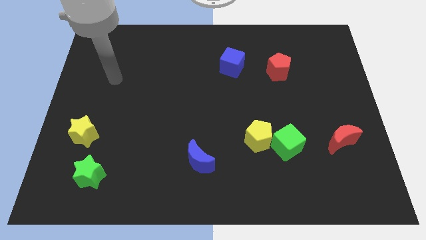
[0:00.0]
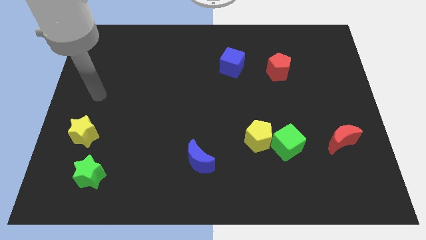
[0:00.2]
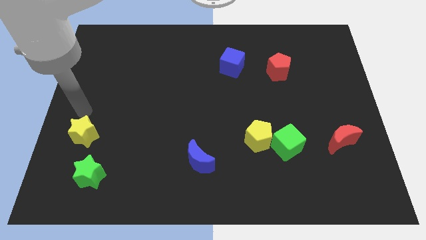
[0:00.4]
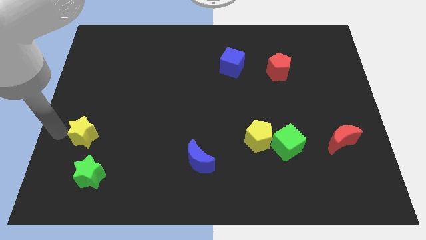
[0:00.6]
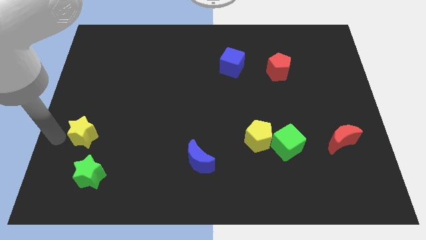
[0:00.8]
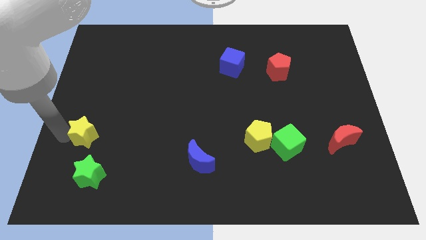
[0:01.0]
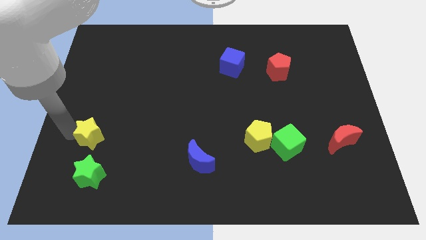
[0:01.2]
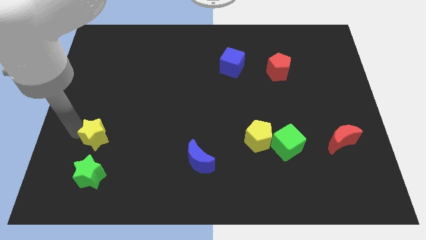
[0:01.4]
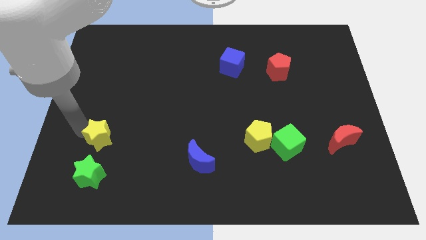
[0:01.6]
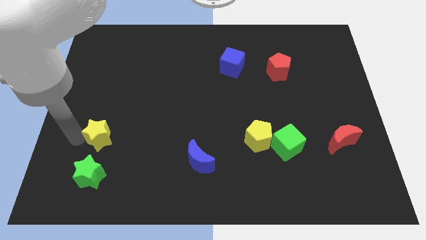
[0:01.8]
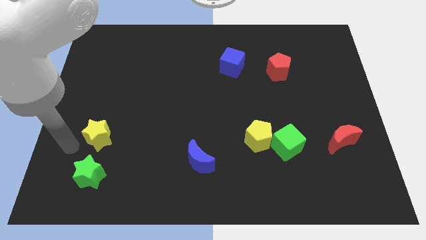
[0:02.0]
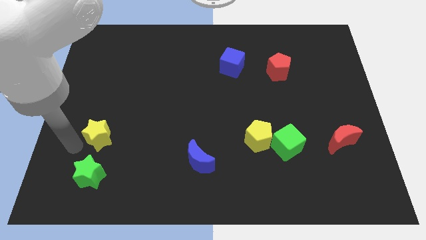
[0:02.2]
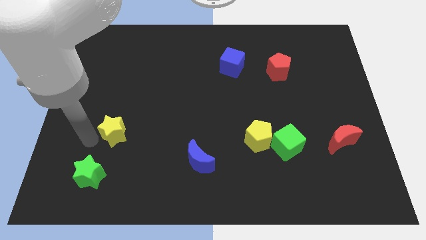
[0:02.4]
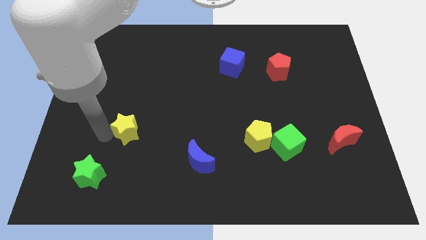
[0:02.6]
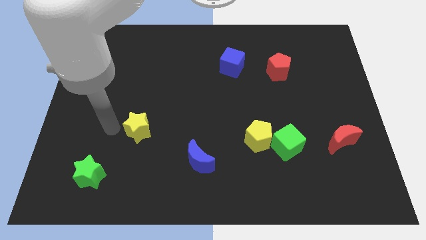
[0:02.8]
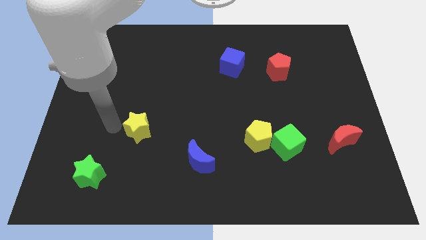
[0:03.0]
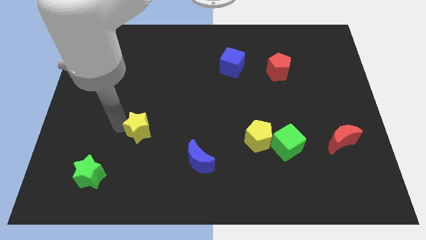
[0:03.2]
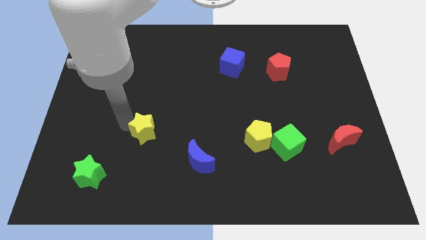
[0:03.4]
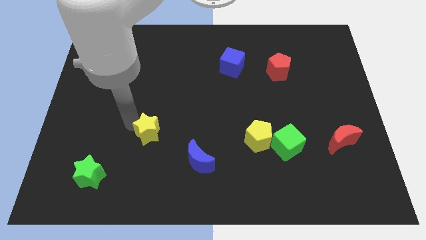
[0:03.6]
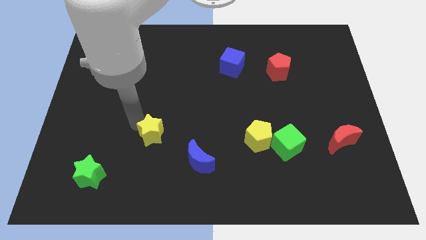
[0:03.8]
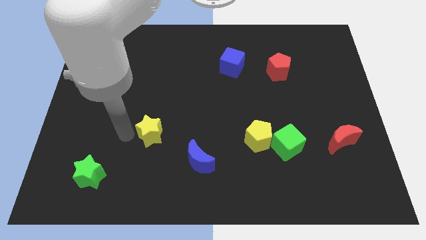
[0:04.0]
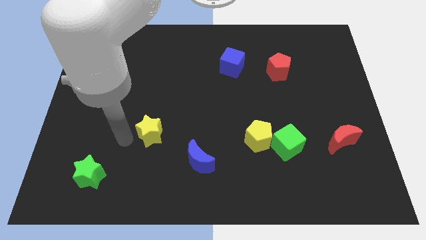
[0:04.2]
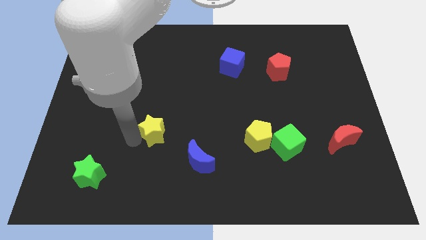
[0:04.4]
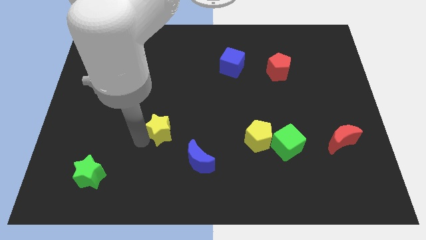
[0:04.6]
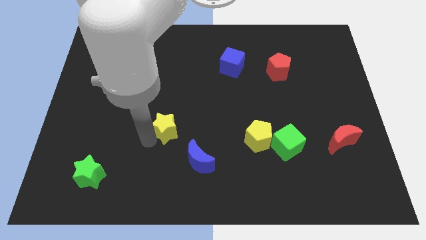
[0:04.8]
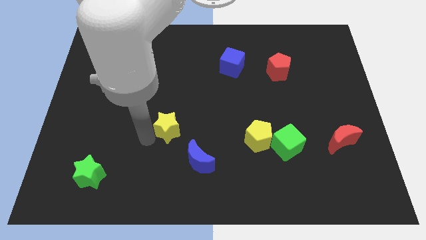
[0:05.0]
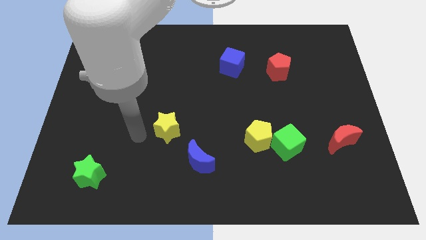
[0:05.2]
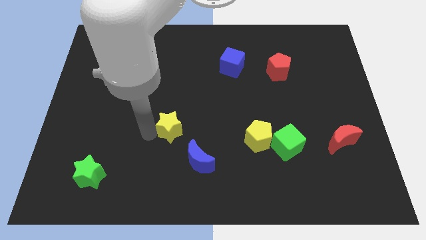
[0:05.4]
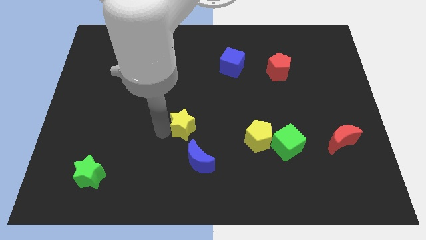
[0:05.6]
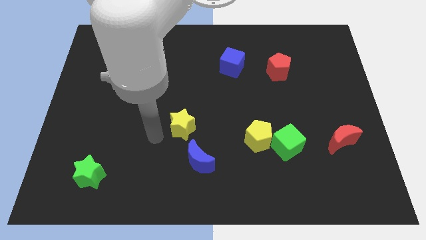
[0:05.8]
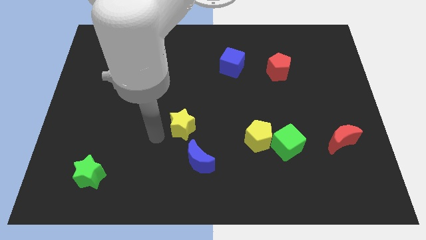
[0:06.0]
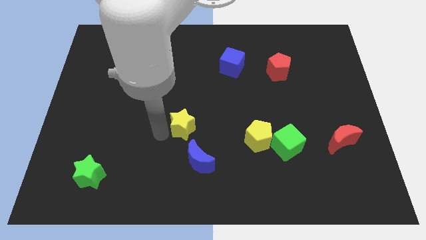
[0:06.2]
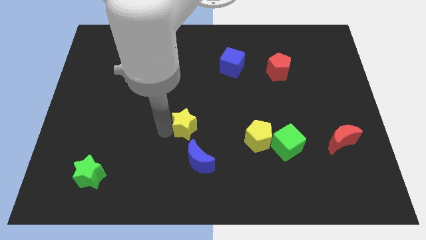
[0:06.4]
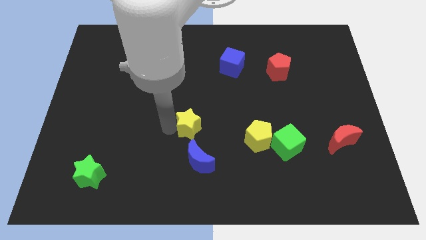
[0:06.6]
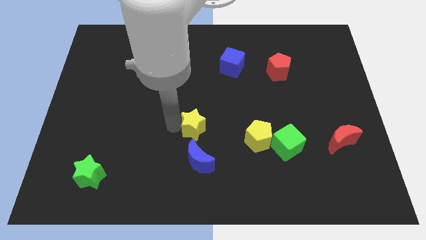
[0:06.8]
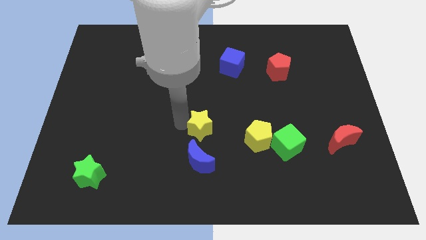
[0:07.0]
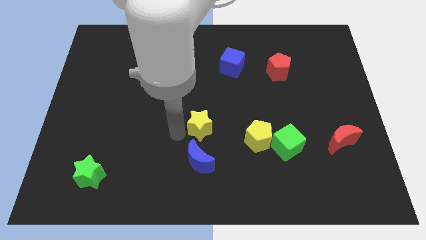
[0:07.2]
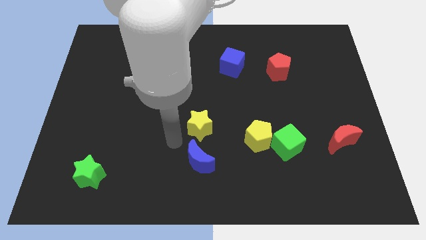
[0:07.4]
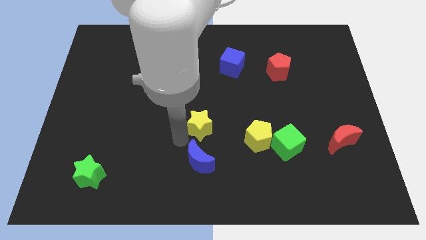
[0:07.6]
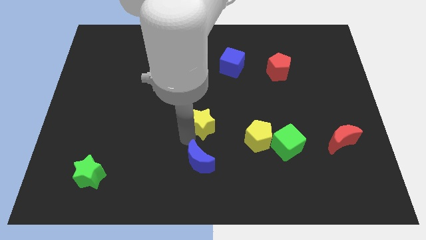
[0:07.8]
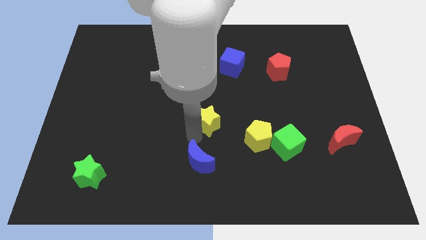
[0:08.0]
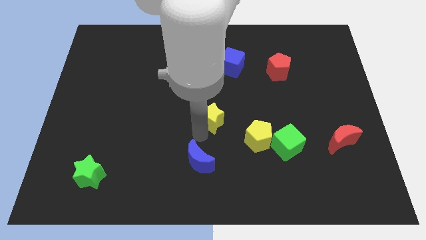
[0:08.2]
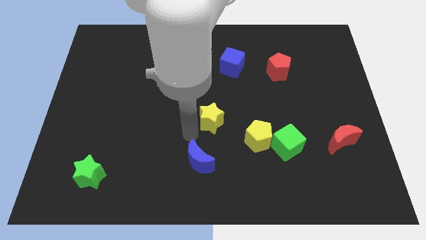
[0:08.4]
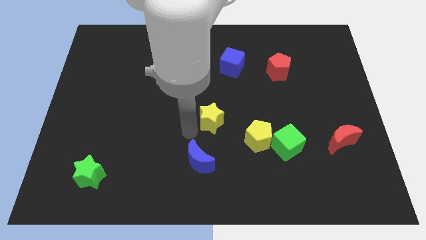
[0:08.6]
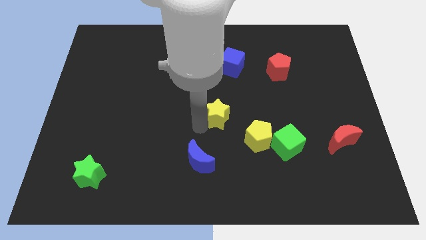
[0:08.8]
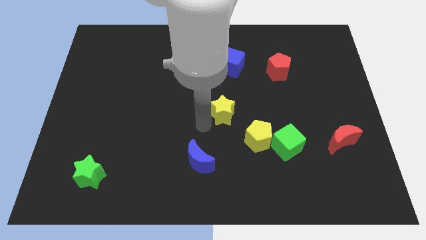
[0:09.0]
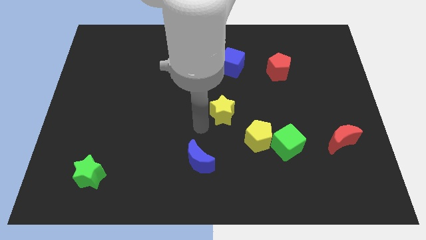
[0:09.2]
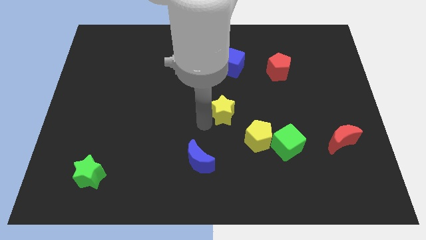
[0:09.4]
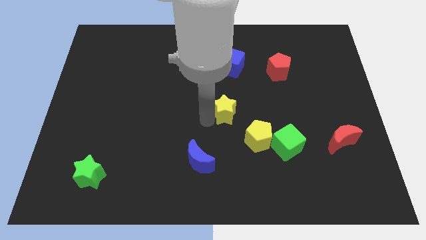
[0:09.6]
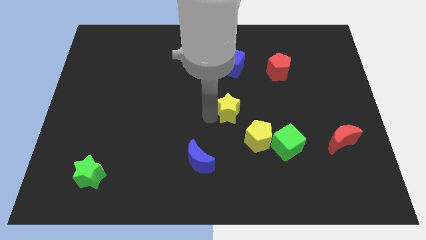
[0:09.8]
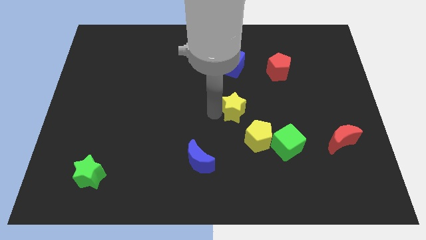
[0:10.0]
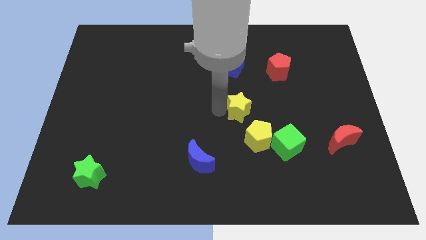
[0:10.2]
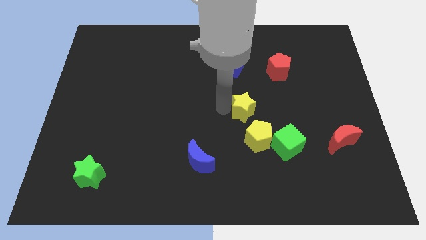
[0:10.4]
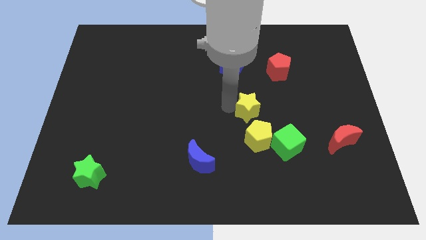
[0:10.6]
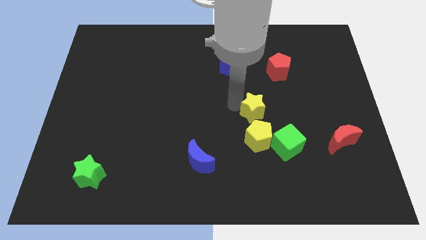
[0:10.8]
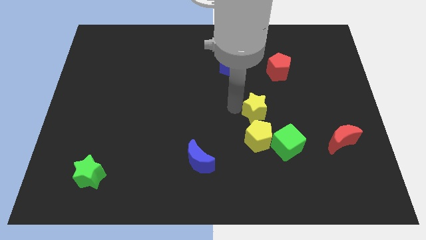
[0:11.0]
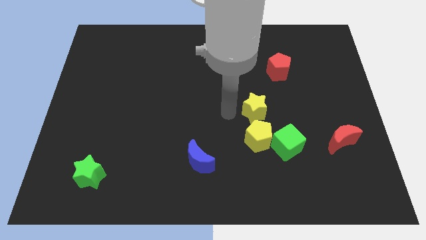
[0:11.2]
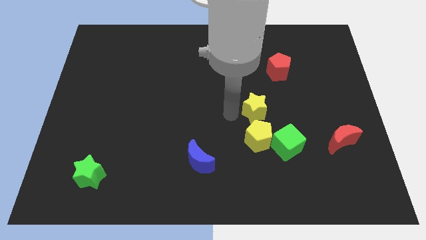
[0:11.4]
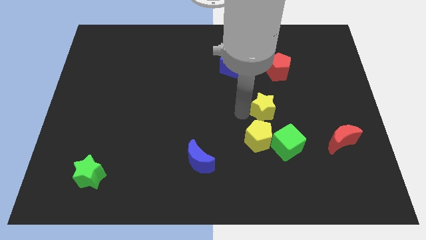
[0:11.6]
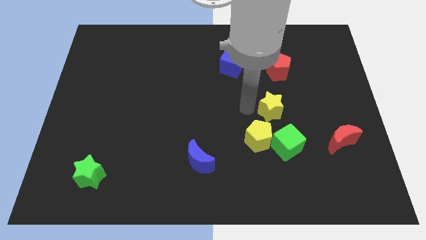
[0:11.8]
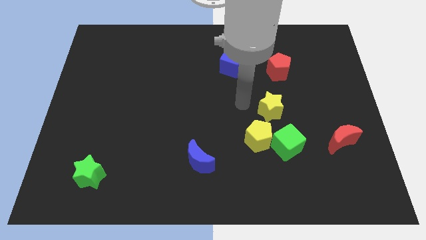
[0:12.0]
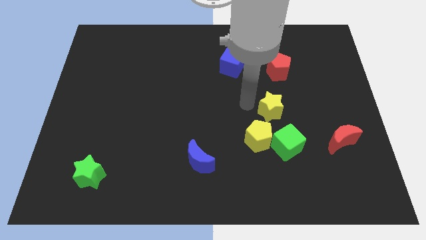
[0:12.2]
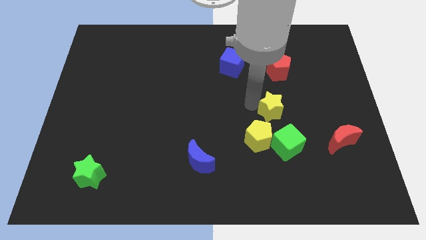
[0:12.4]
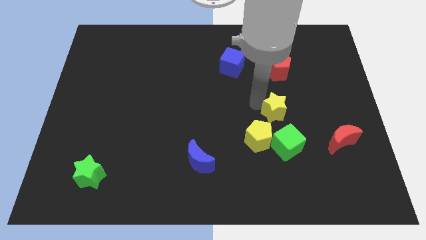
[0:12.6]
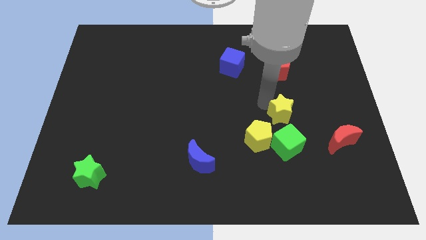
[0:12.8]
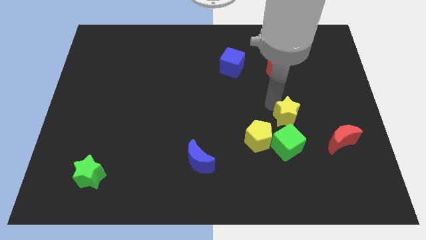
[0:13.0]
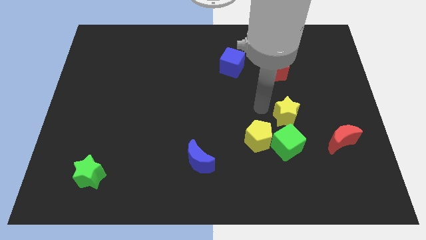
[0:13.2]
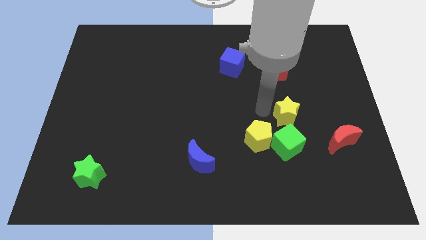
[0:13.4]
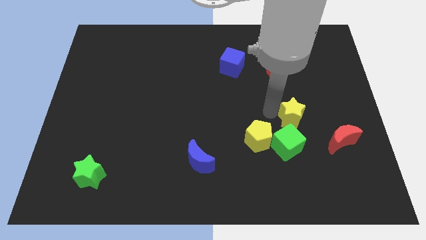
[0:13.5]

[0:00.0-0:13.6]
slide the yellow star to the top left side of the red moon

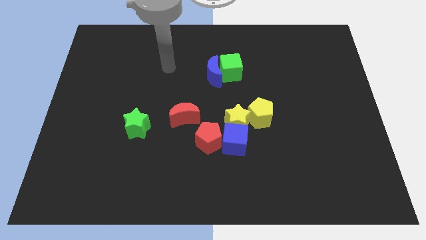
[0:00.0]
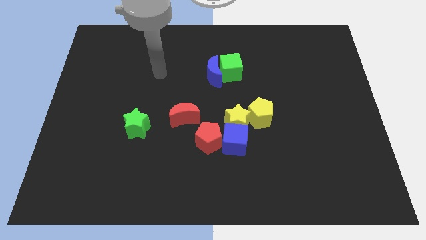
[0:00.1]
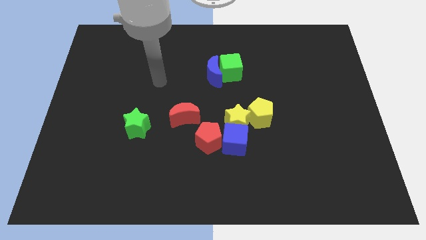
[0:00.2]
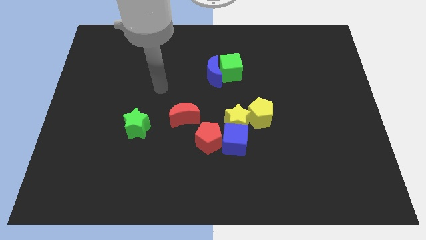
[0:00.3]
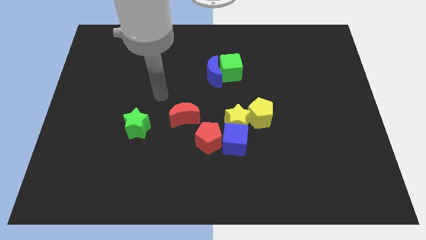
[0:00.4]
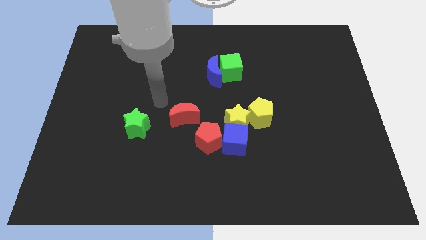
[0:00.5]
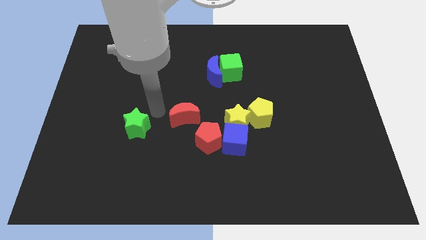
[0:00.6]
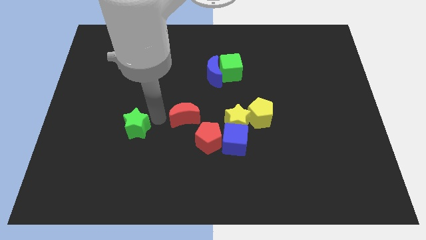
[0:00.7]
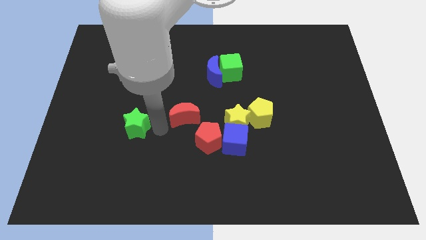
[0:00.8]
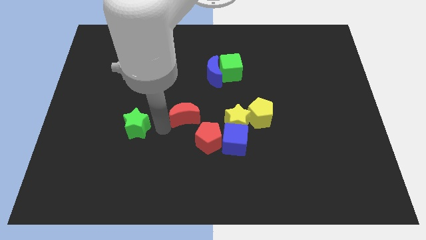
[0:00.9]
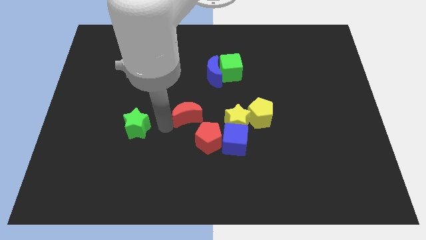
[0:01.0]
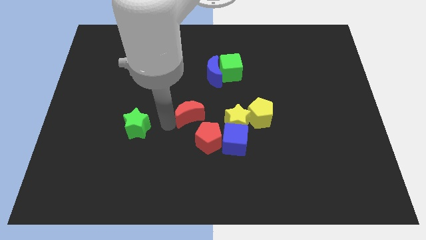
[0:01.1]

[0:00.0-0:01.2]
move the red moon to the top side of the red pentagon
